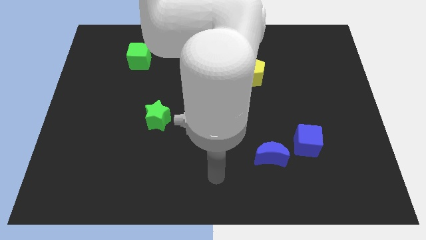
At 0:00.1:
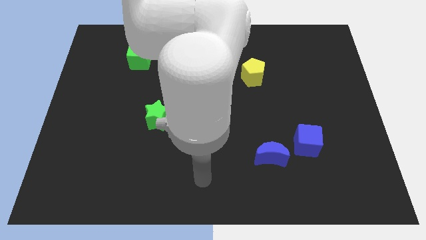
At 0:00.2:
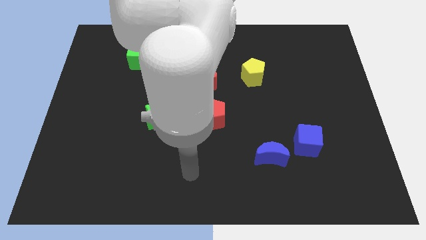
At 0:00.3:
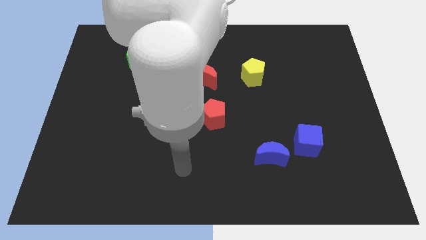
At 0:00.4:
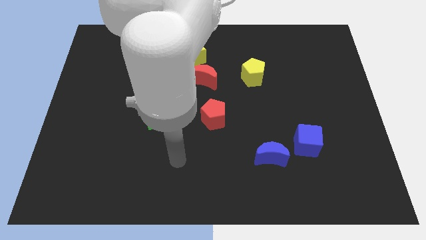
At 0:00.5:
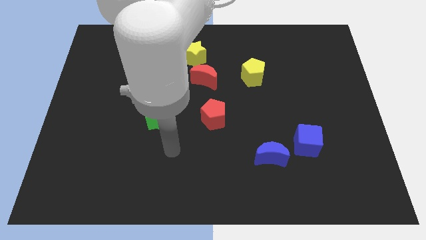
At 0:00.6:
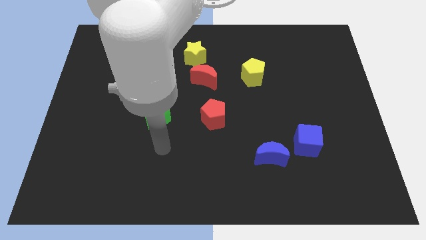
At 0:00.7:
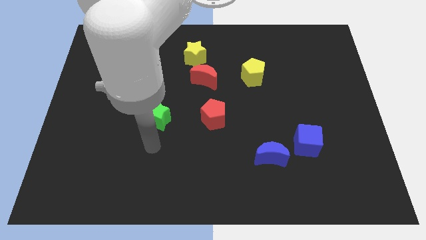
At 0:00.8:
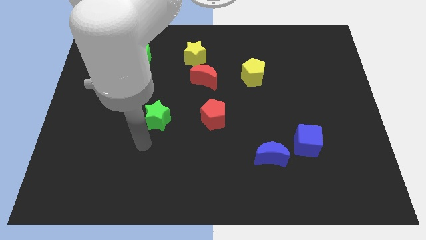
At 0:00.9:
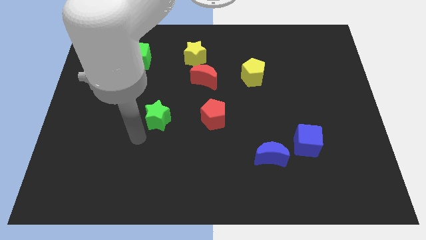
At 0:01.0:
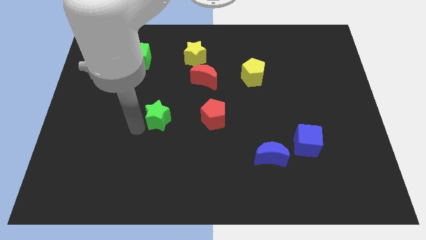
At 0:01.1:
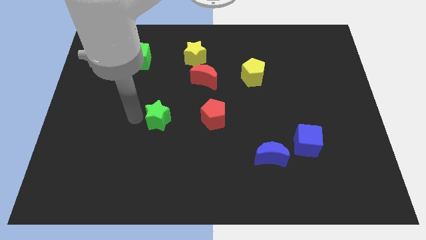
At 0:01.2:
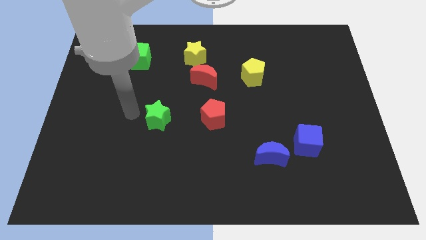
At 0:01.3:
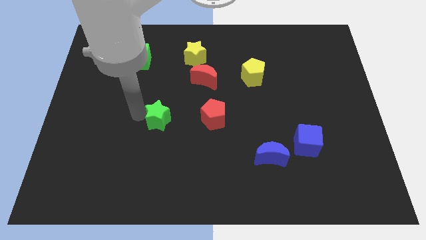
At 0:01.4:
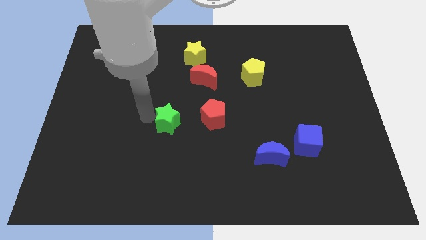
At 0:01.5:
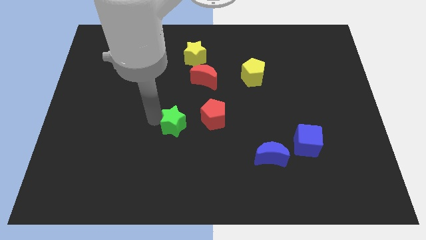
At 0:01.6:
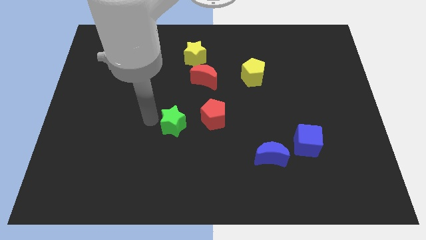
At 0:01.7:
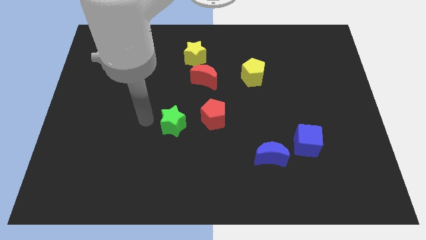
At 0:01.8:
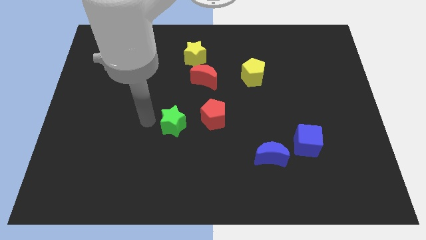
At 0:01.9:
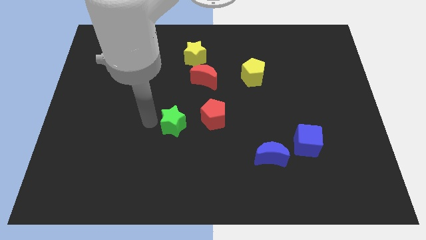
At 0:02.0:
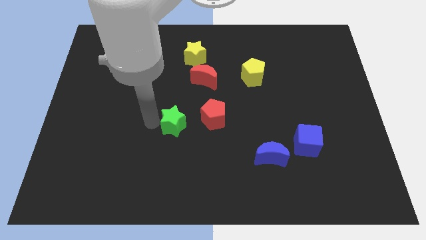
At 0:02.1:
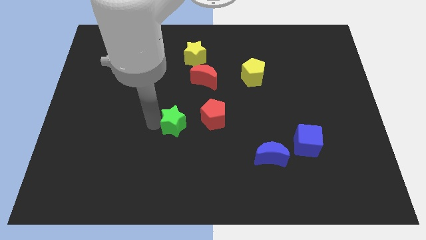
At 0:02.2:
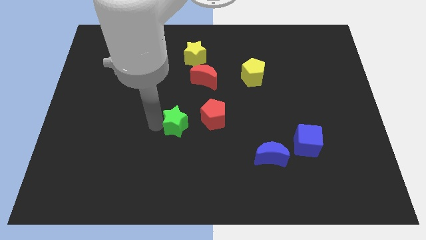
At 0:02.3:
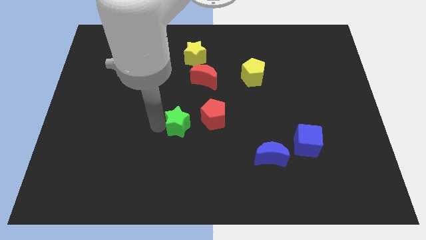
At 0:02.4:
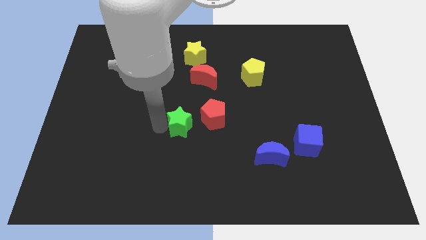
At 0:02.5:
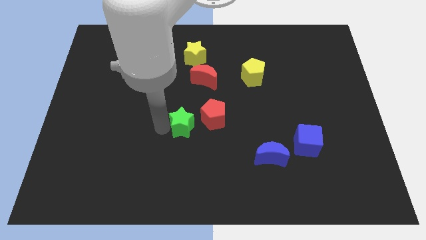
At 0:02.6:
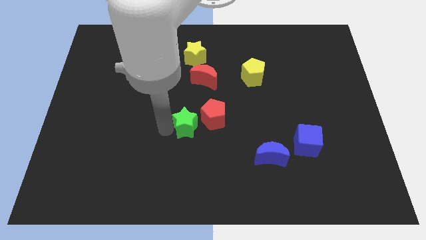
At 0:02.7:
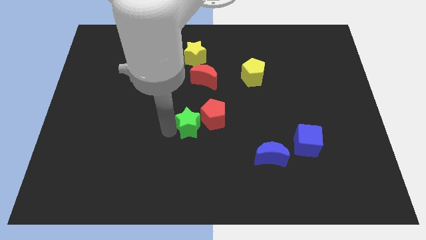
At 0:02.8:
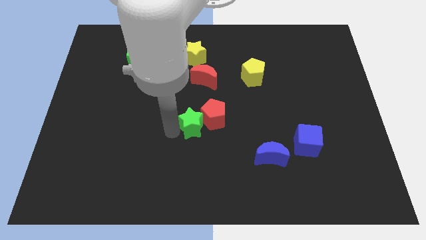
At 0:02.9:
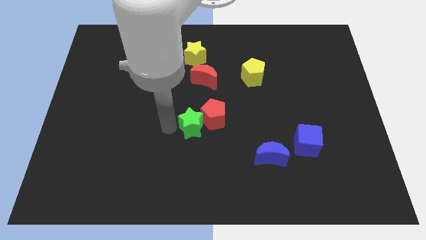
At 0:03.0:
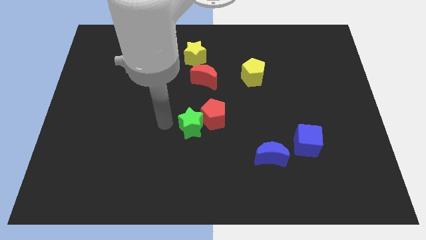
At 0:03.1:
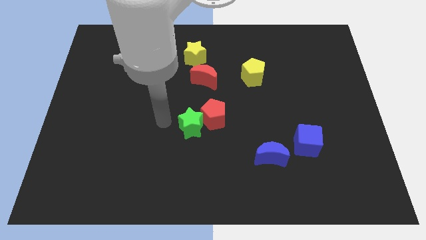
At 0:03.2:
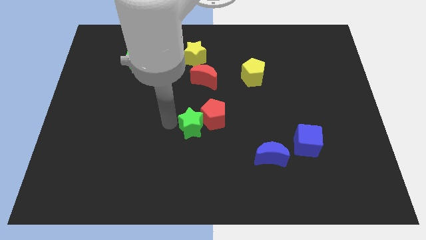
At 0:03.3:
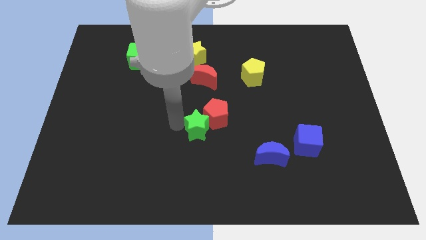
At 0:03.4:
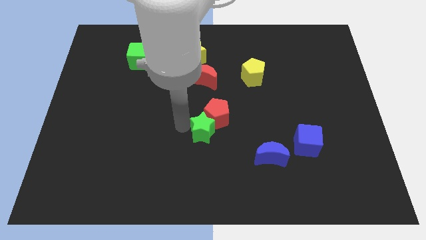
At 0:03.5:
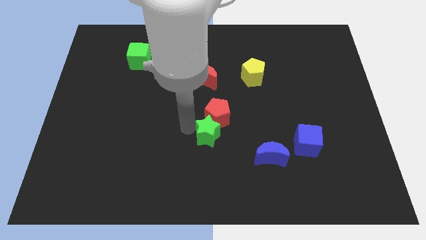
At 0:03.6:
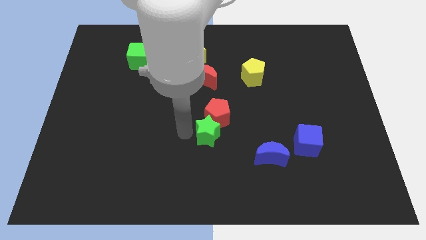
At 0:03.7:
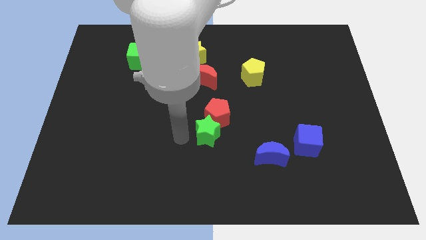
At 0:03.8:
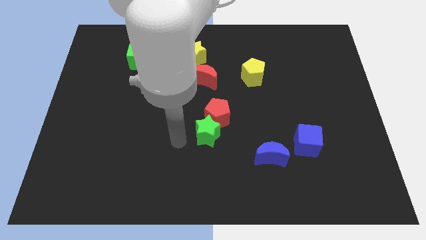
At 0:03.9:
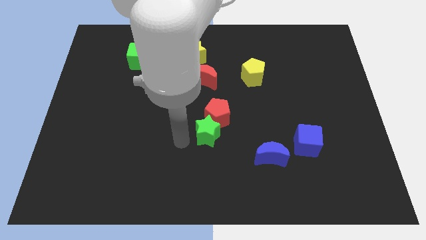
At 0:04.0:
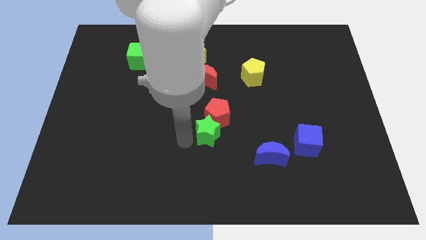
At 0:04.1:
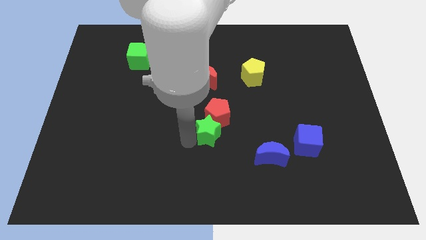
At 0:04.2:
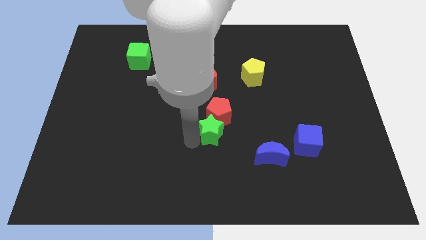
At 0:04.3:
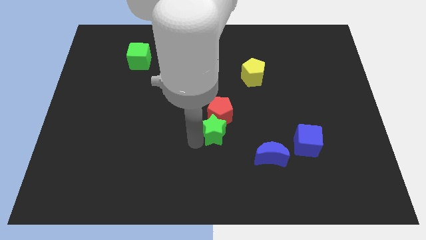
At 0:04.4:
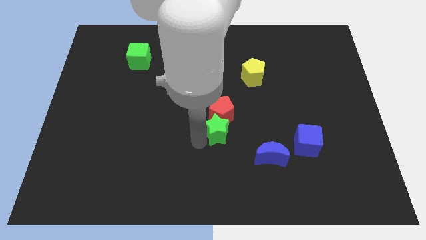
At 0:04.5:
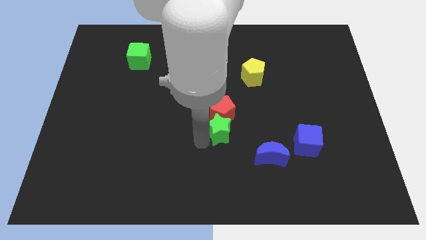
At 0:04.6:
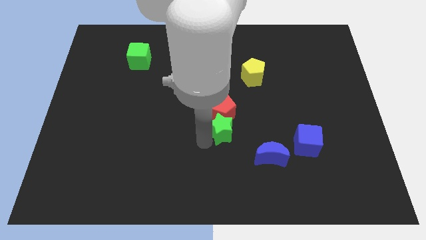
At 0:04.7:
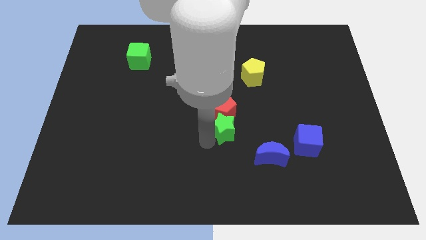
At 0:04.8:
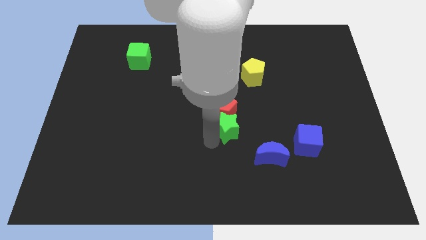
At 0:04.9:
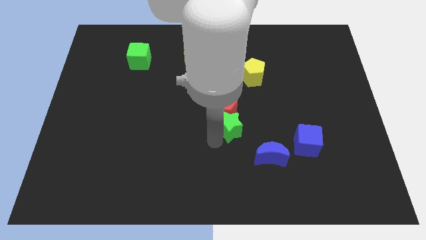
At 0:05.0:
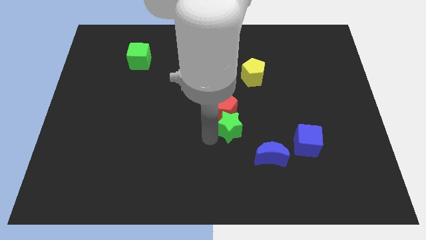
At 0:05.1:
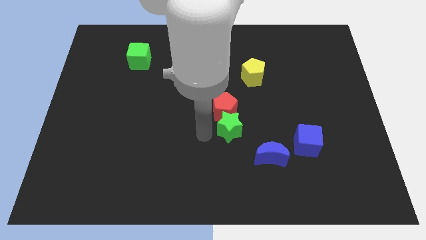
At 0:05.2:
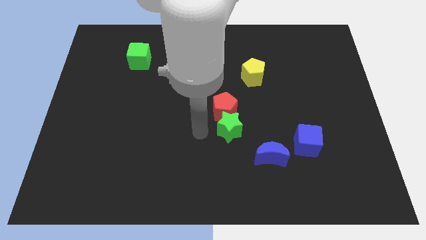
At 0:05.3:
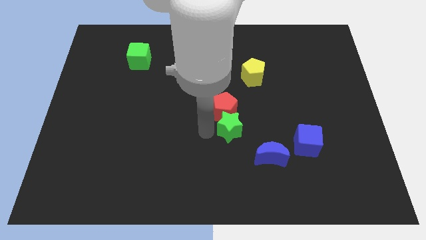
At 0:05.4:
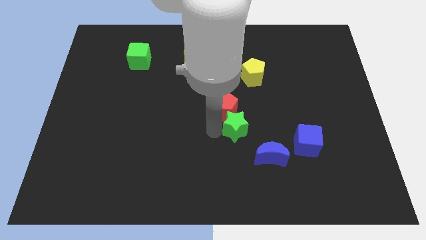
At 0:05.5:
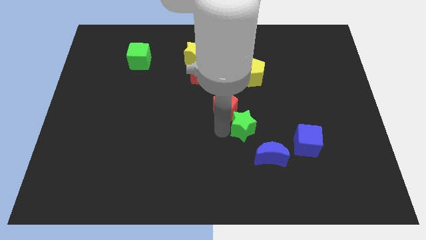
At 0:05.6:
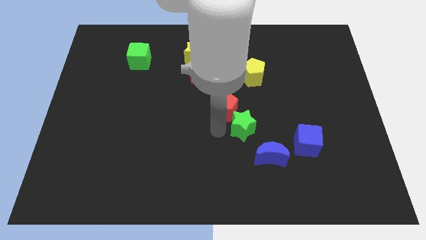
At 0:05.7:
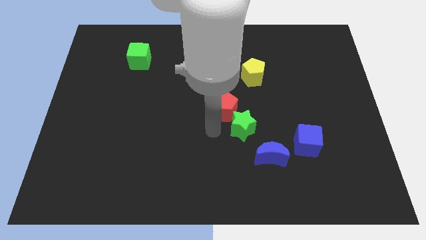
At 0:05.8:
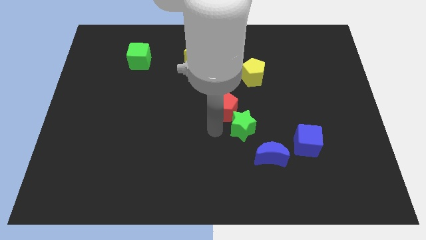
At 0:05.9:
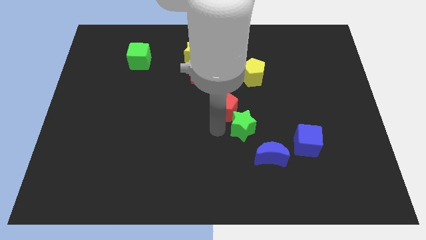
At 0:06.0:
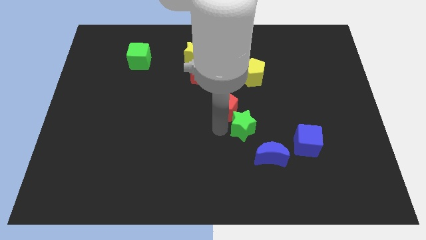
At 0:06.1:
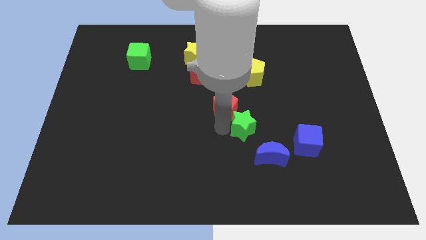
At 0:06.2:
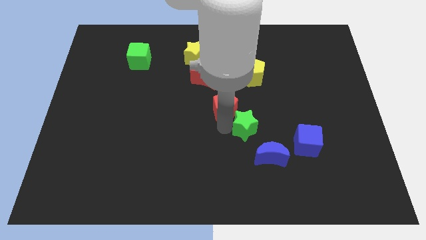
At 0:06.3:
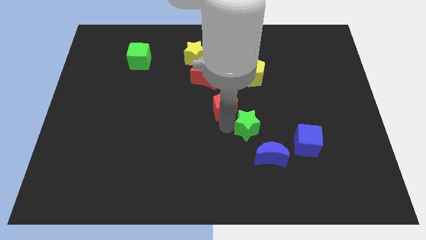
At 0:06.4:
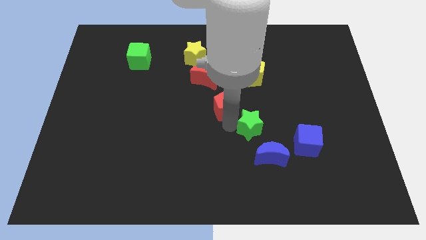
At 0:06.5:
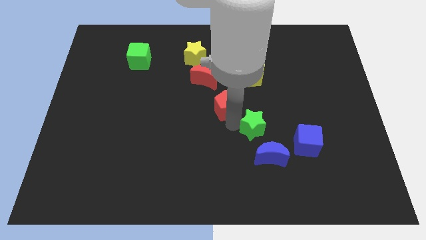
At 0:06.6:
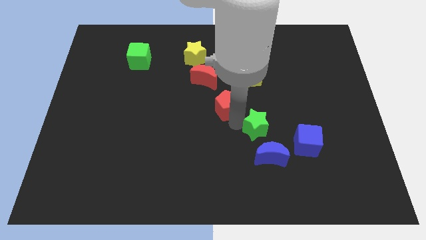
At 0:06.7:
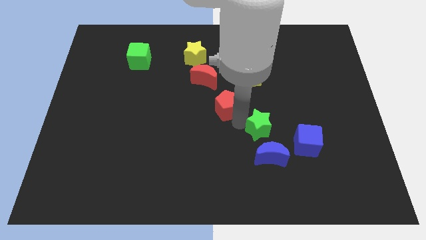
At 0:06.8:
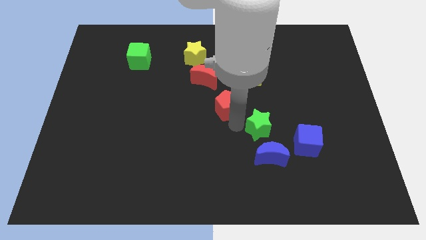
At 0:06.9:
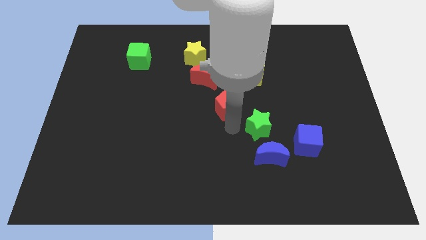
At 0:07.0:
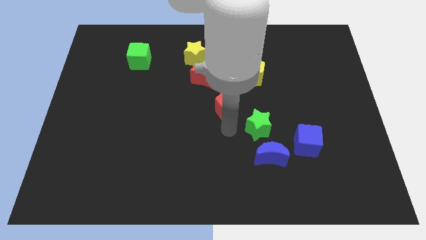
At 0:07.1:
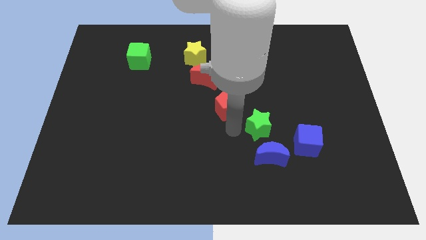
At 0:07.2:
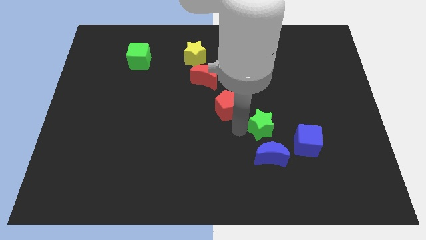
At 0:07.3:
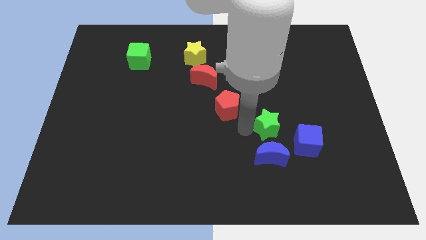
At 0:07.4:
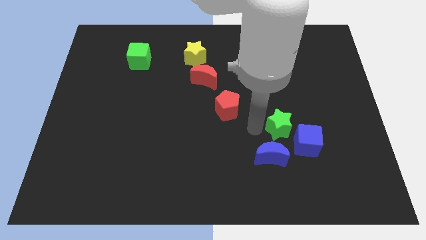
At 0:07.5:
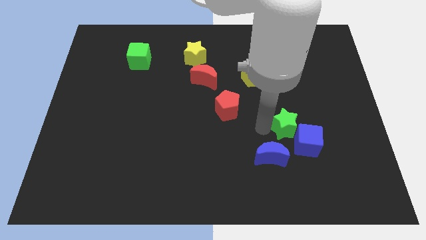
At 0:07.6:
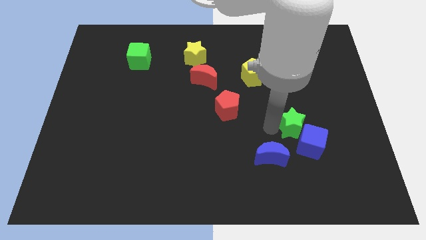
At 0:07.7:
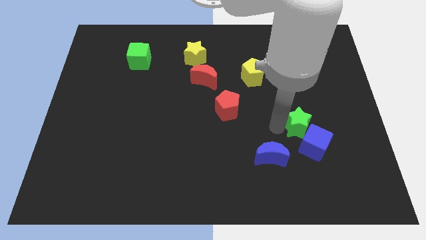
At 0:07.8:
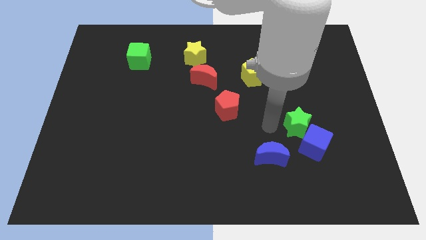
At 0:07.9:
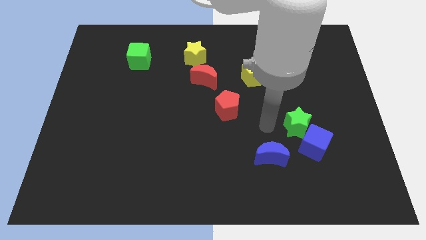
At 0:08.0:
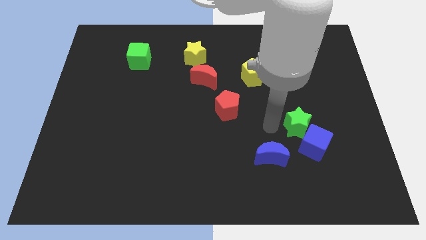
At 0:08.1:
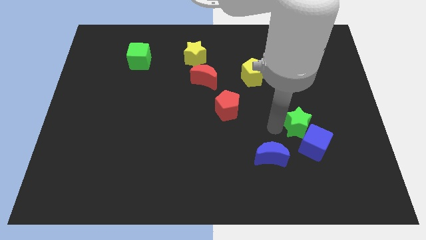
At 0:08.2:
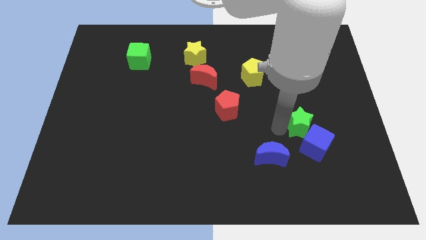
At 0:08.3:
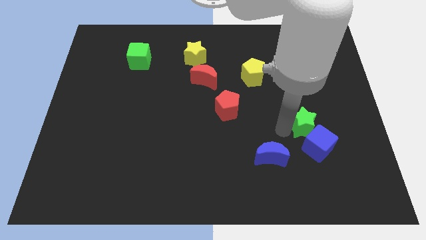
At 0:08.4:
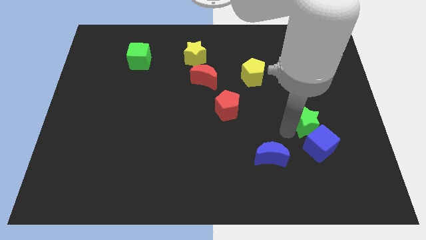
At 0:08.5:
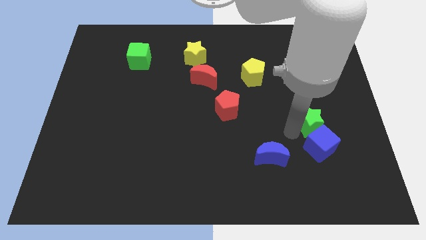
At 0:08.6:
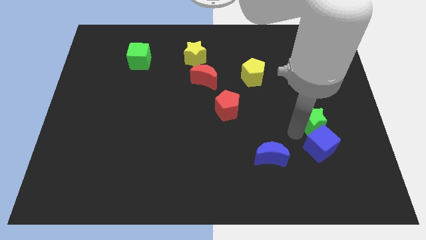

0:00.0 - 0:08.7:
slide the green star to the top right side of the blue cube
